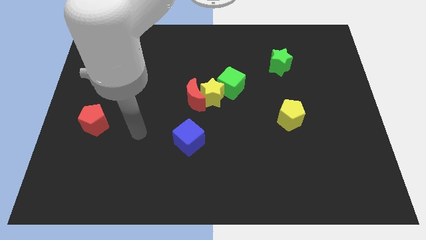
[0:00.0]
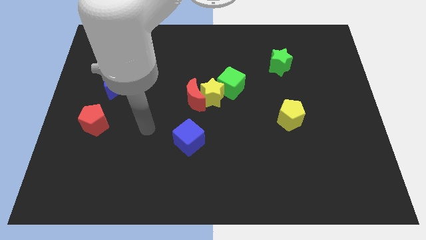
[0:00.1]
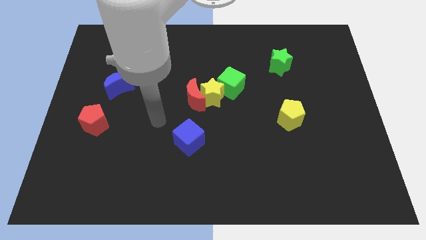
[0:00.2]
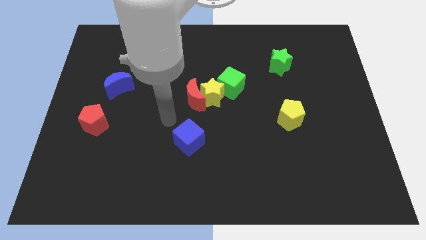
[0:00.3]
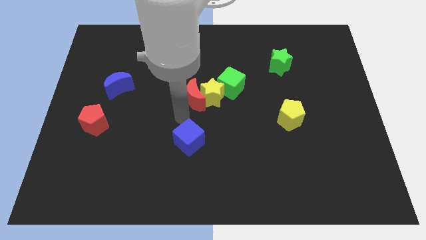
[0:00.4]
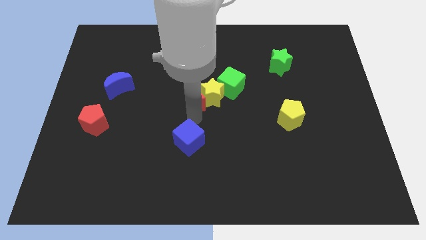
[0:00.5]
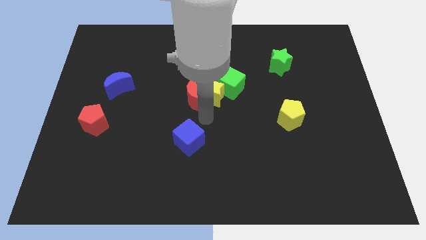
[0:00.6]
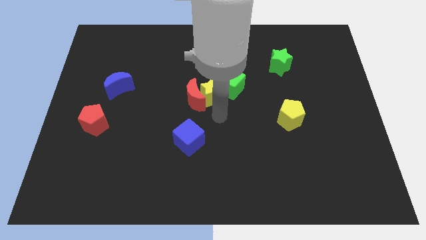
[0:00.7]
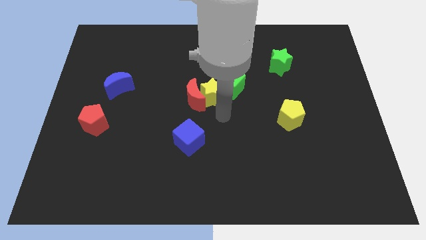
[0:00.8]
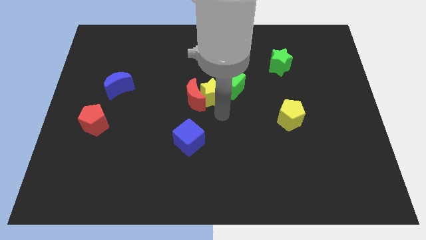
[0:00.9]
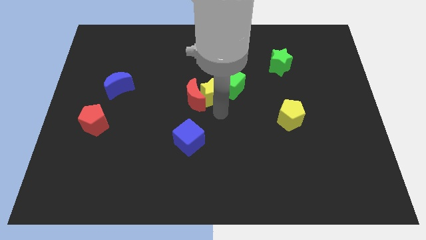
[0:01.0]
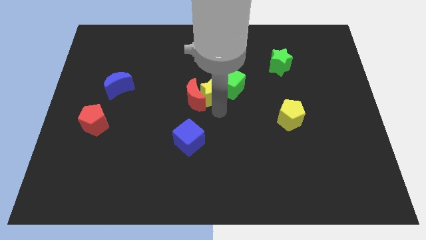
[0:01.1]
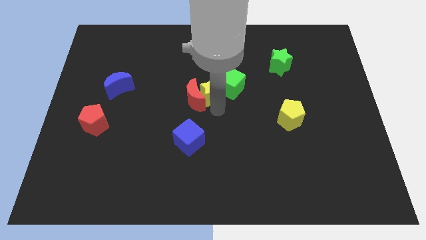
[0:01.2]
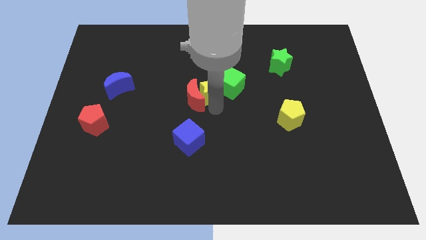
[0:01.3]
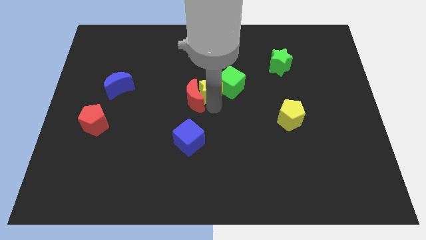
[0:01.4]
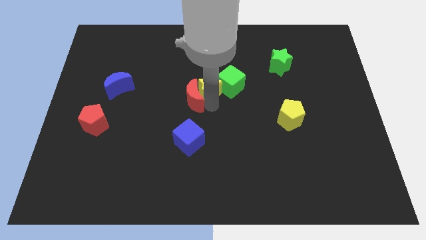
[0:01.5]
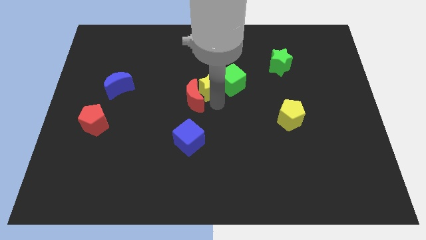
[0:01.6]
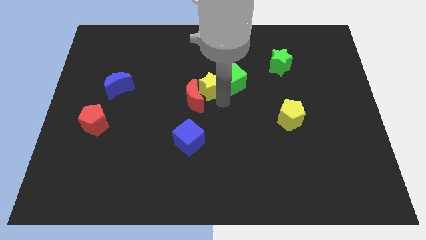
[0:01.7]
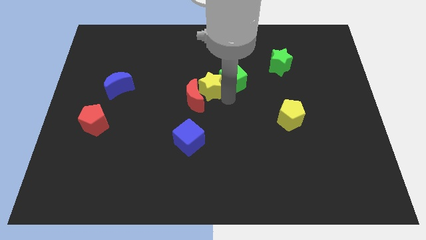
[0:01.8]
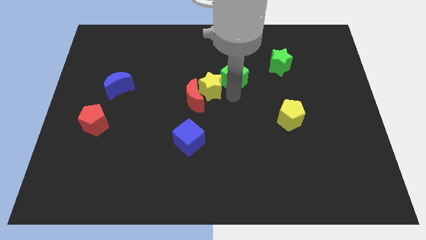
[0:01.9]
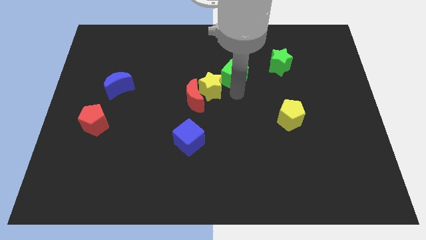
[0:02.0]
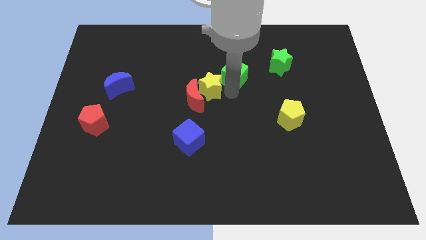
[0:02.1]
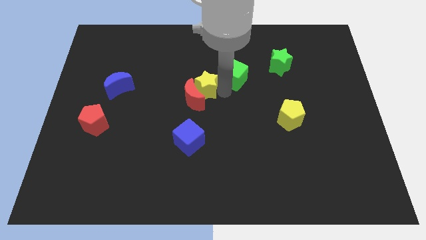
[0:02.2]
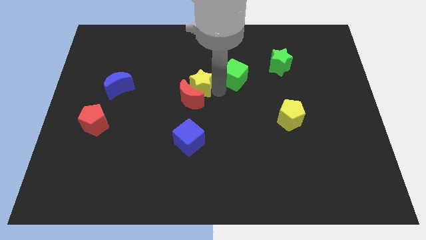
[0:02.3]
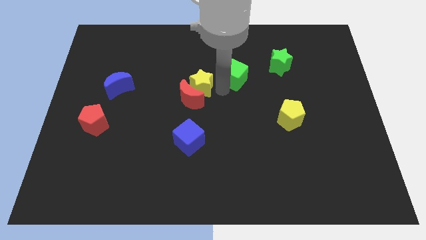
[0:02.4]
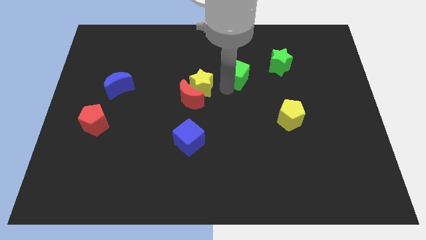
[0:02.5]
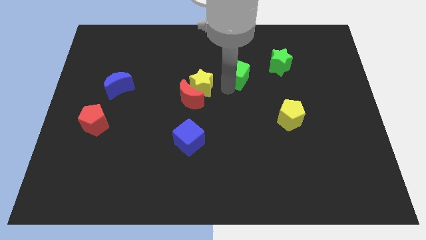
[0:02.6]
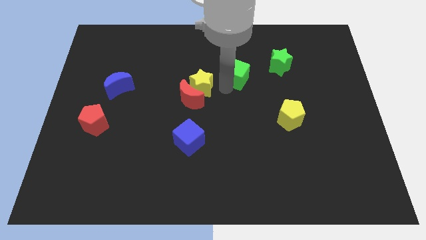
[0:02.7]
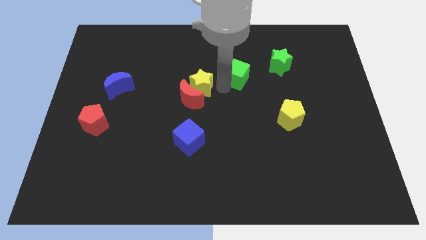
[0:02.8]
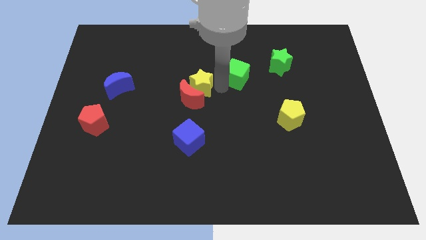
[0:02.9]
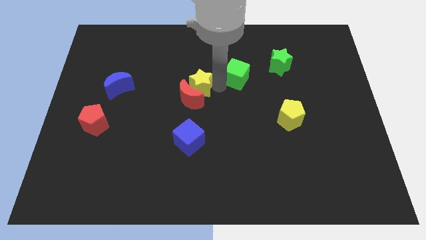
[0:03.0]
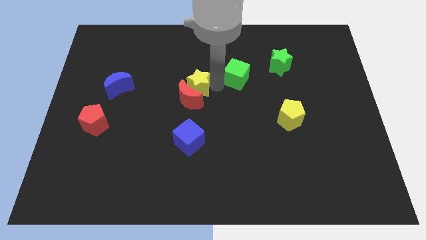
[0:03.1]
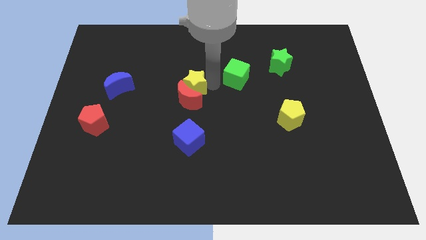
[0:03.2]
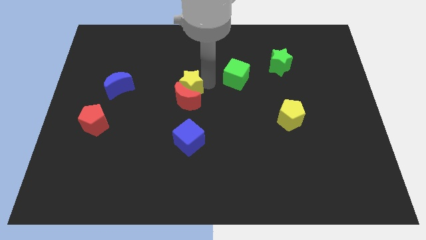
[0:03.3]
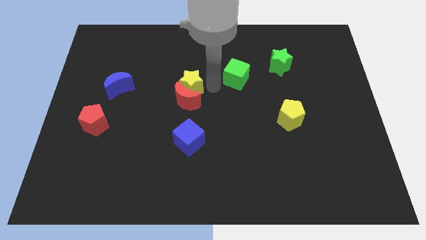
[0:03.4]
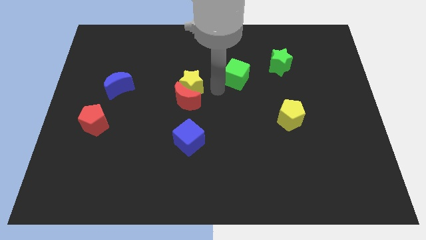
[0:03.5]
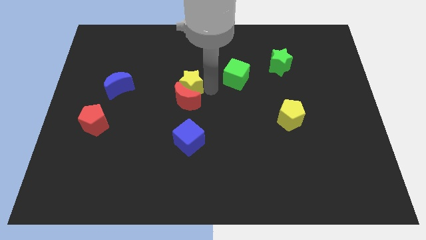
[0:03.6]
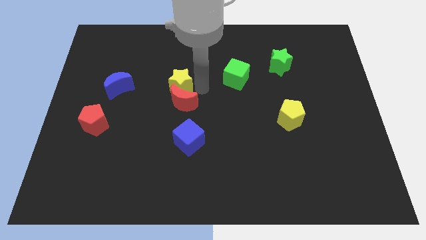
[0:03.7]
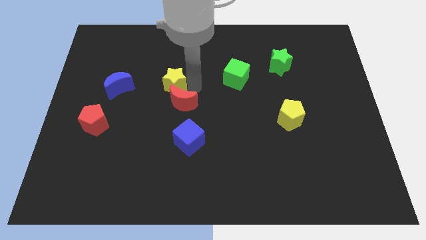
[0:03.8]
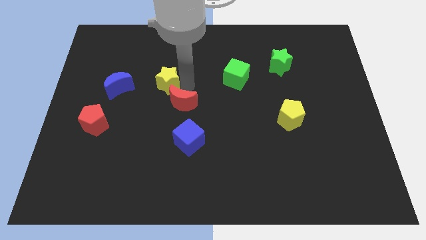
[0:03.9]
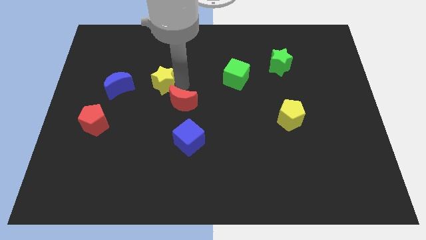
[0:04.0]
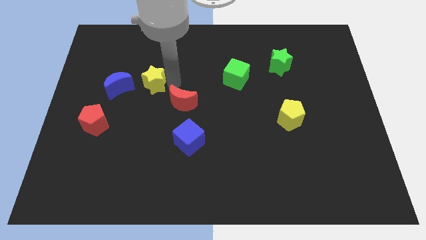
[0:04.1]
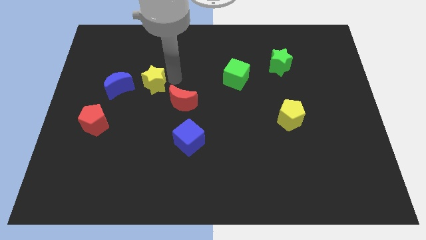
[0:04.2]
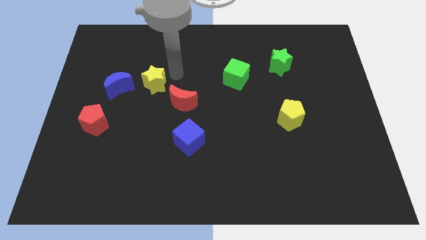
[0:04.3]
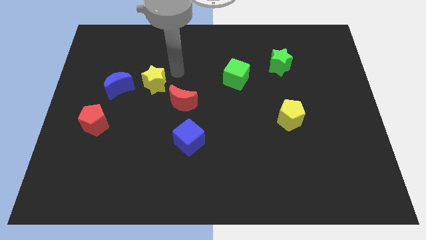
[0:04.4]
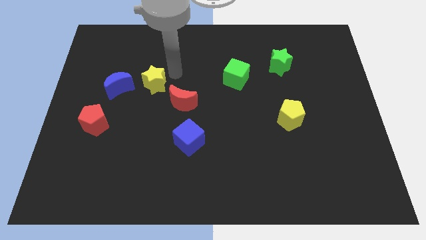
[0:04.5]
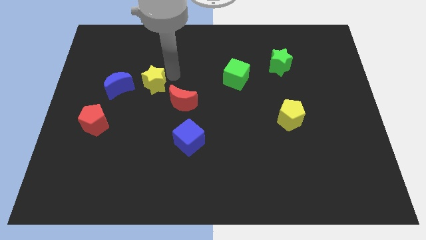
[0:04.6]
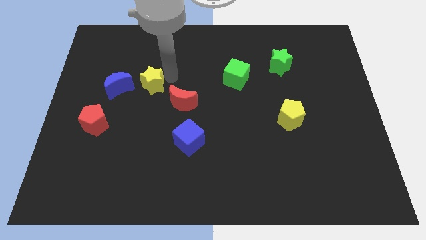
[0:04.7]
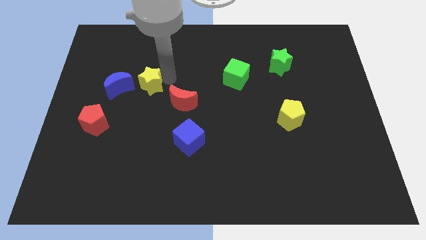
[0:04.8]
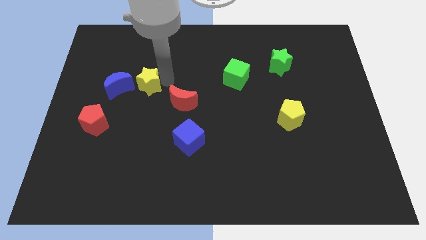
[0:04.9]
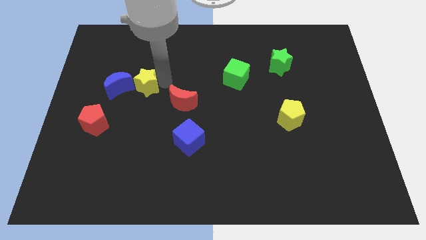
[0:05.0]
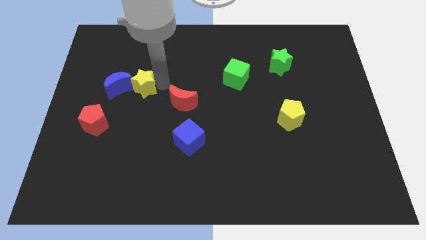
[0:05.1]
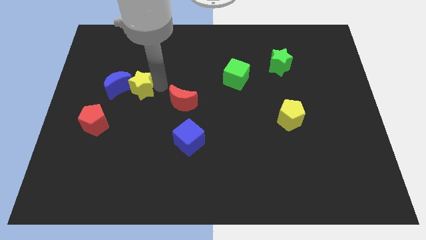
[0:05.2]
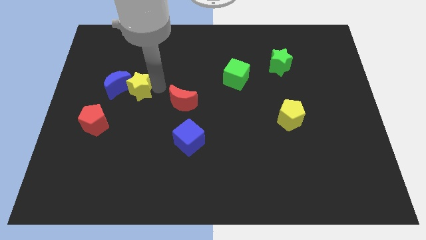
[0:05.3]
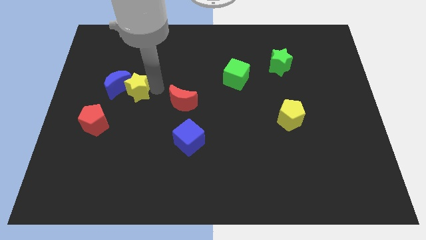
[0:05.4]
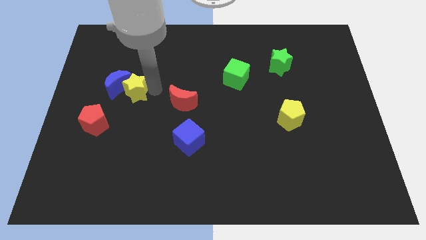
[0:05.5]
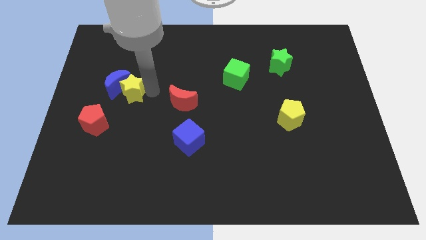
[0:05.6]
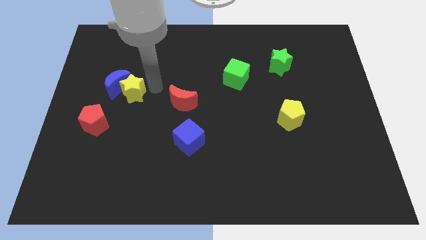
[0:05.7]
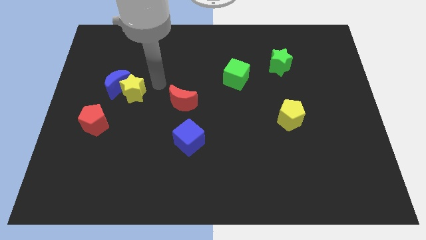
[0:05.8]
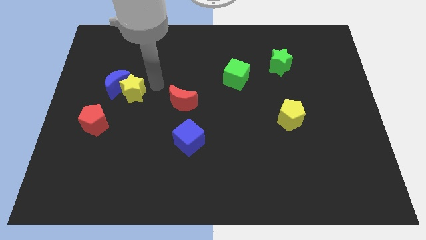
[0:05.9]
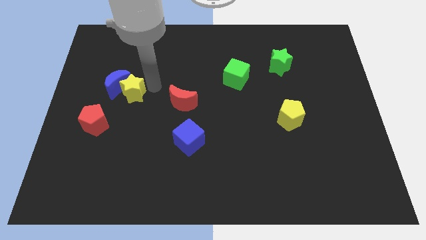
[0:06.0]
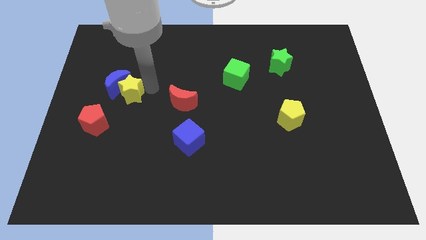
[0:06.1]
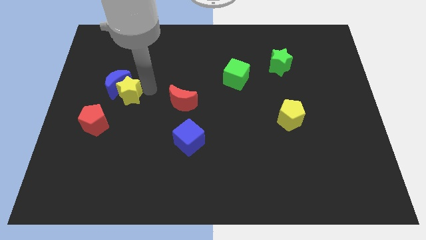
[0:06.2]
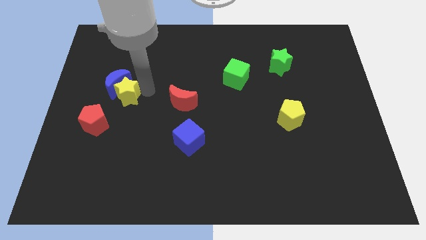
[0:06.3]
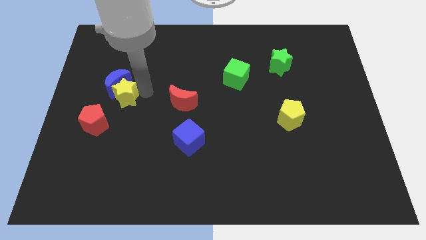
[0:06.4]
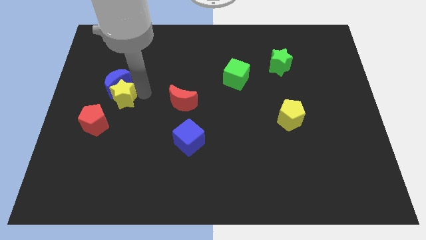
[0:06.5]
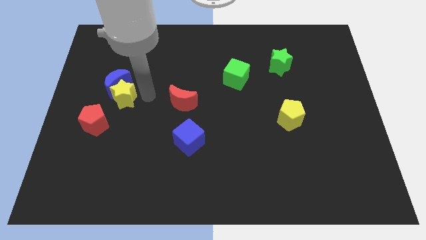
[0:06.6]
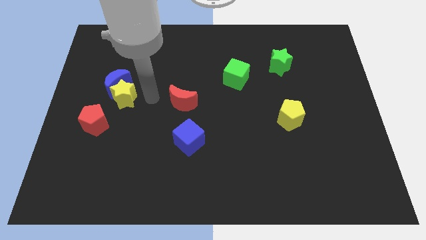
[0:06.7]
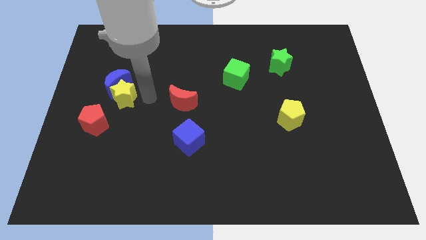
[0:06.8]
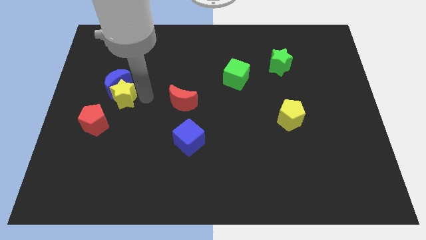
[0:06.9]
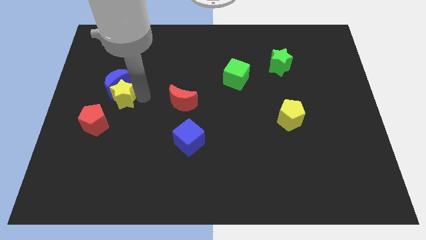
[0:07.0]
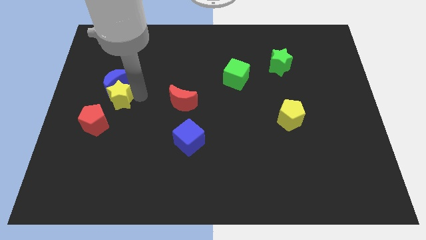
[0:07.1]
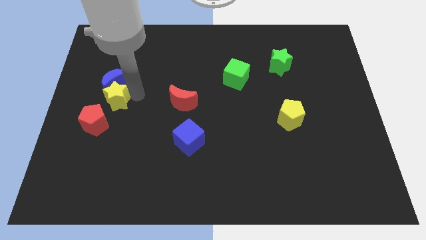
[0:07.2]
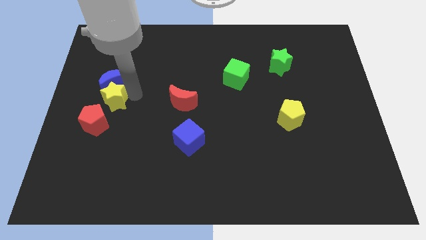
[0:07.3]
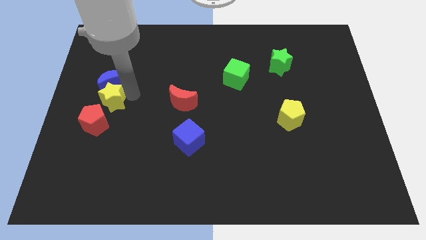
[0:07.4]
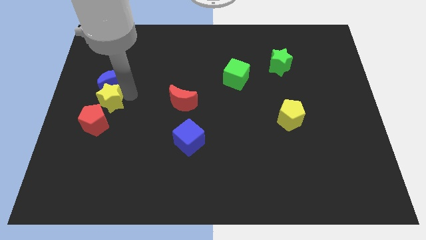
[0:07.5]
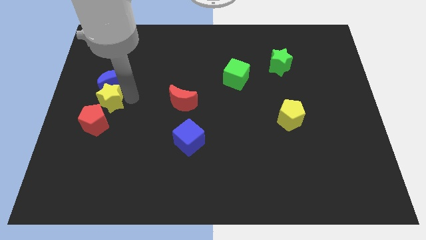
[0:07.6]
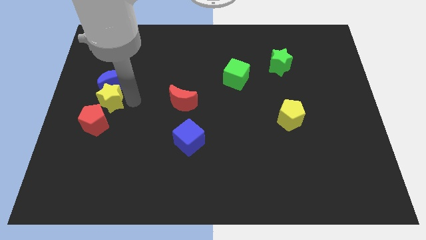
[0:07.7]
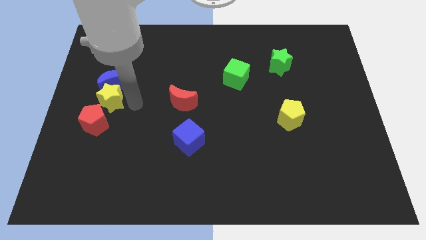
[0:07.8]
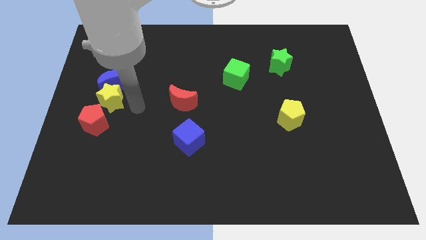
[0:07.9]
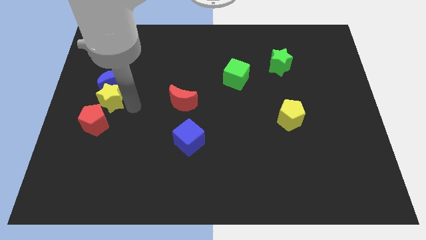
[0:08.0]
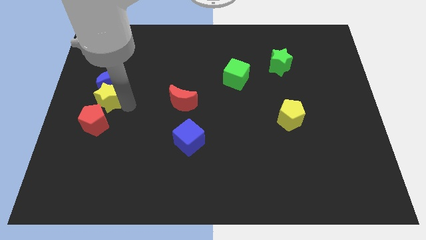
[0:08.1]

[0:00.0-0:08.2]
push the yellow star to the left side of the board
